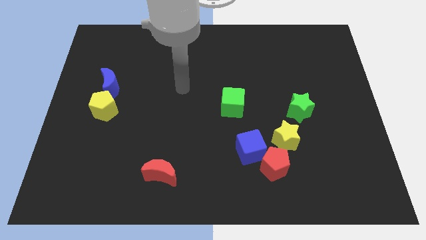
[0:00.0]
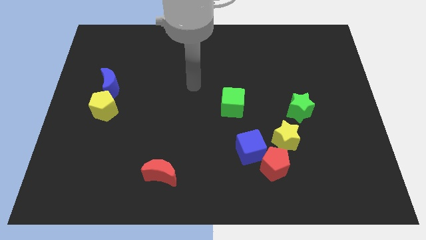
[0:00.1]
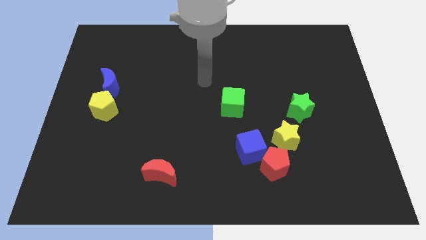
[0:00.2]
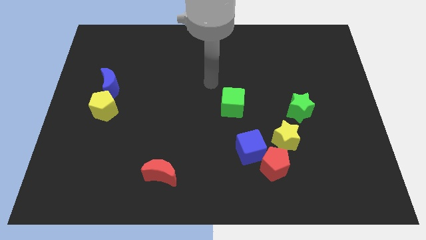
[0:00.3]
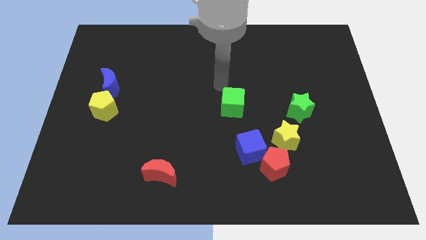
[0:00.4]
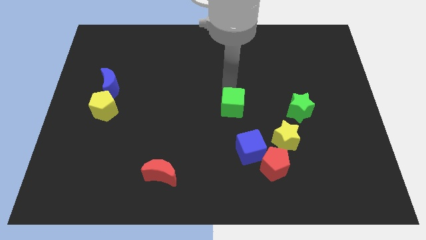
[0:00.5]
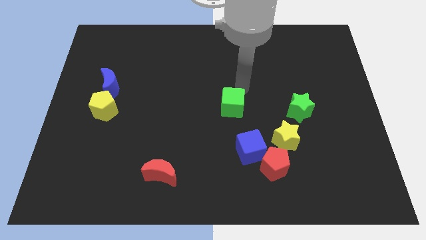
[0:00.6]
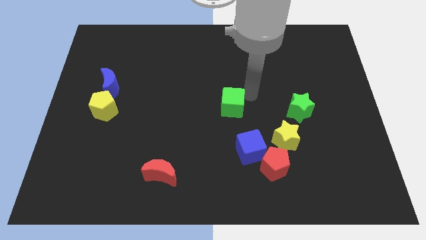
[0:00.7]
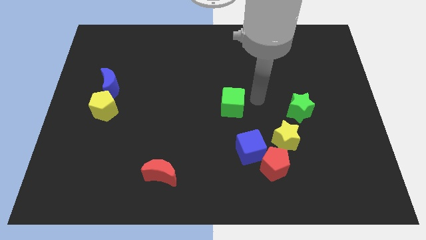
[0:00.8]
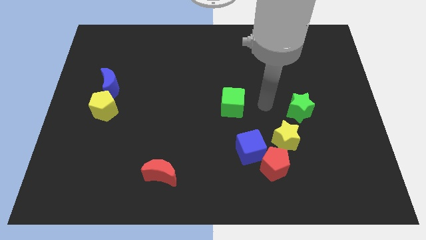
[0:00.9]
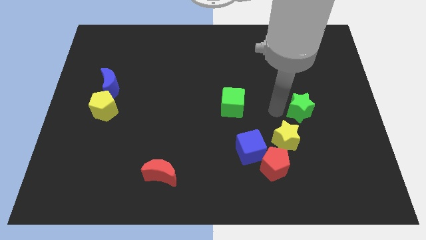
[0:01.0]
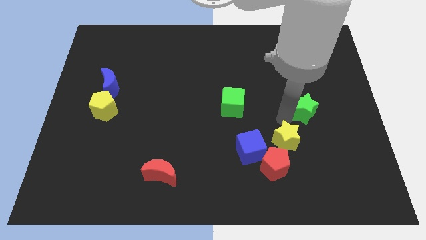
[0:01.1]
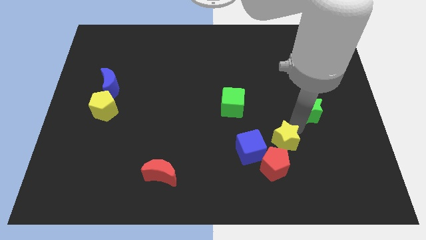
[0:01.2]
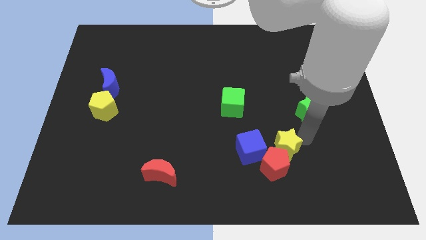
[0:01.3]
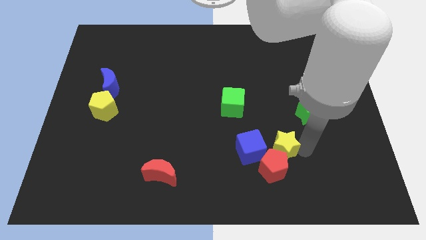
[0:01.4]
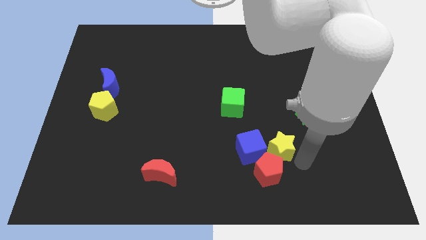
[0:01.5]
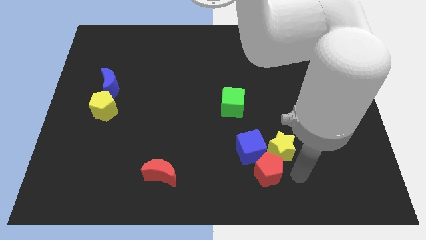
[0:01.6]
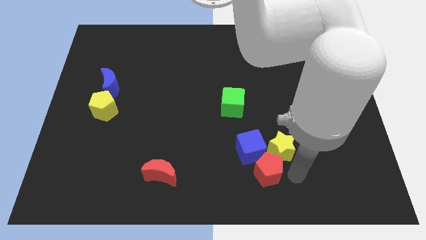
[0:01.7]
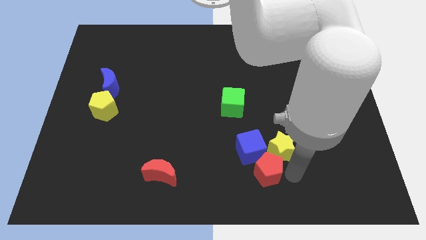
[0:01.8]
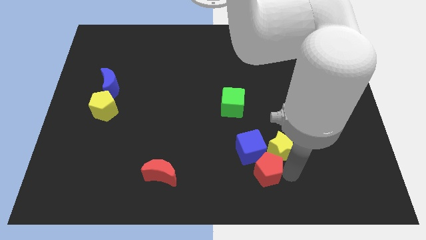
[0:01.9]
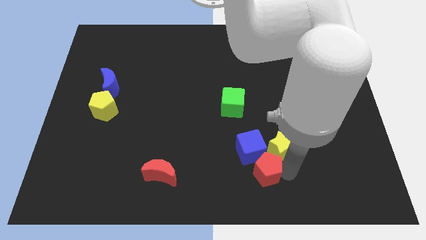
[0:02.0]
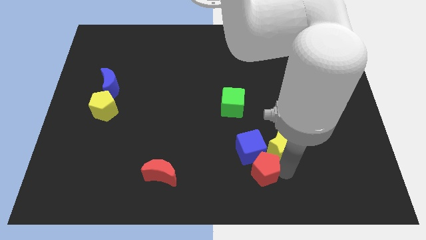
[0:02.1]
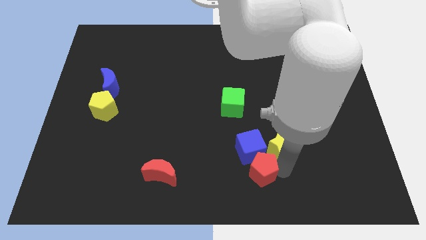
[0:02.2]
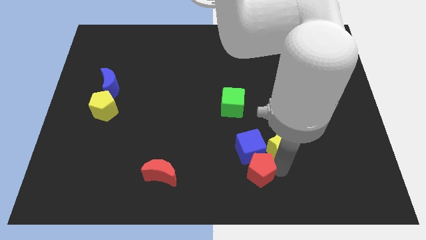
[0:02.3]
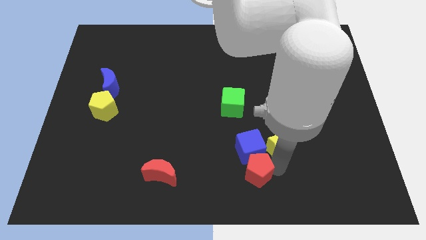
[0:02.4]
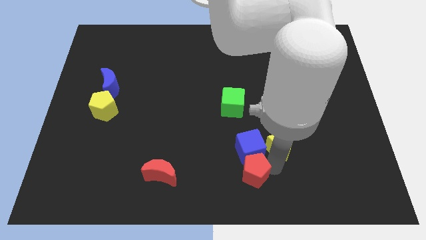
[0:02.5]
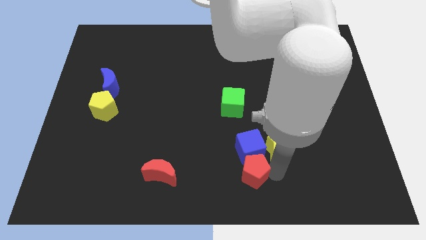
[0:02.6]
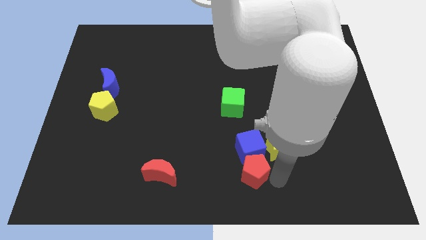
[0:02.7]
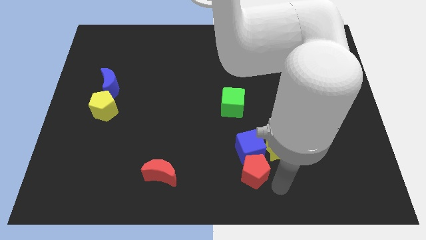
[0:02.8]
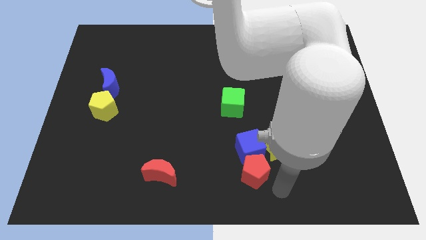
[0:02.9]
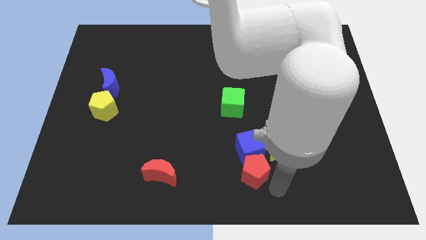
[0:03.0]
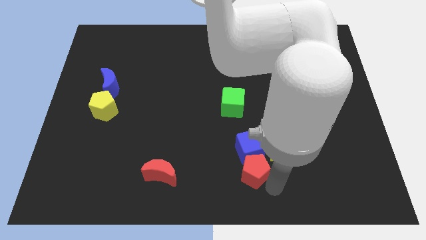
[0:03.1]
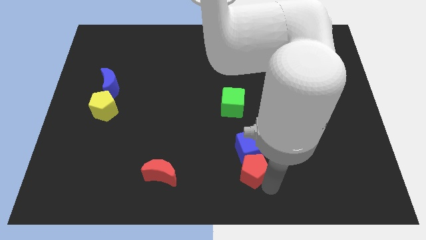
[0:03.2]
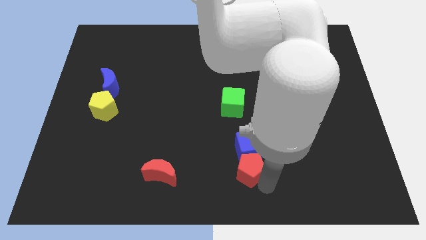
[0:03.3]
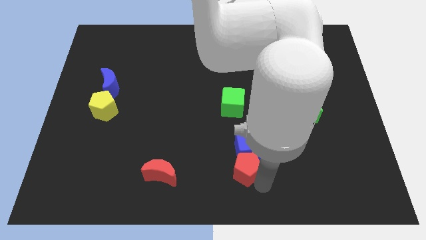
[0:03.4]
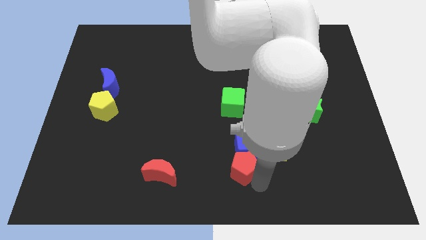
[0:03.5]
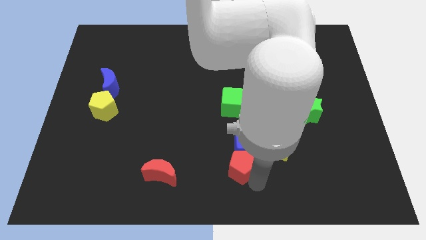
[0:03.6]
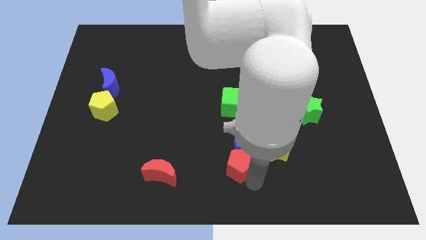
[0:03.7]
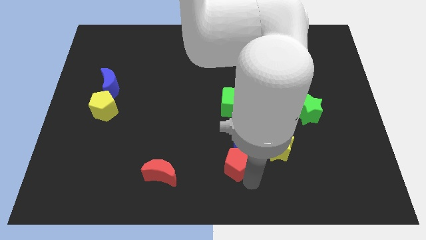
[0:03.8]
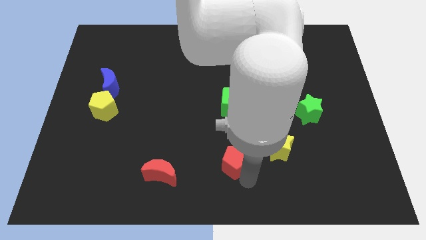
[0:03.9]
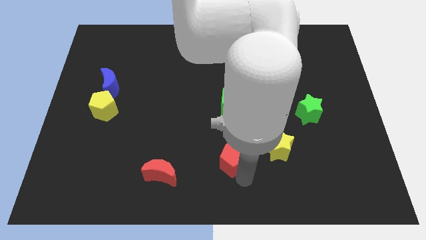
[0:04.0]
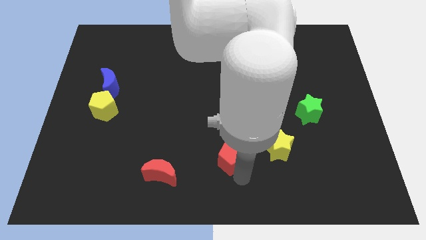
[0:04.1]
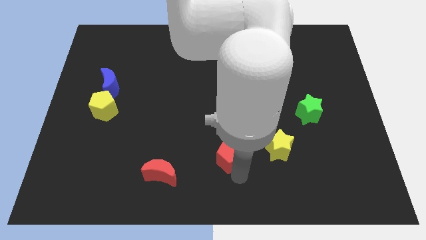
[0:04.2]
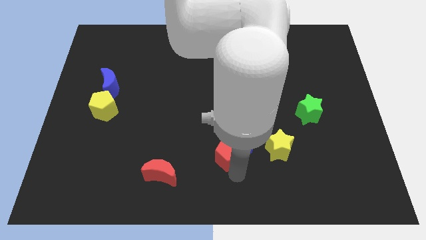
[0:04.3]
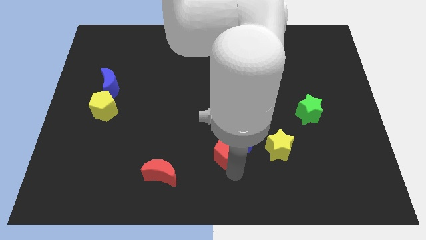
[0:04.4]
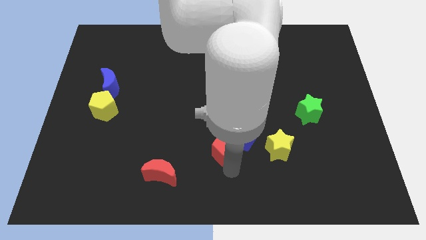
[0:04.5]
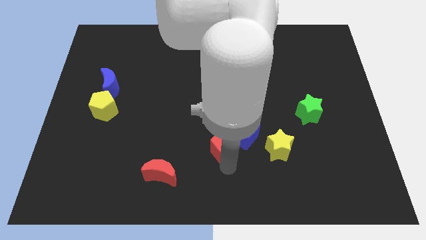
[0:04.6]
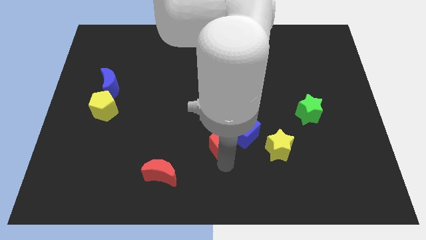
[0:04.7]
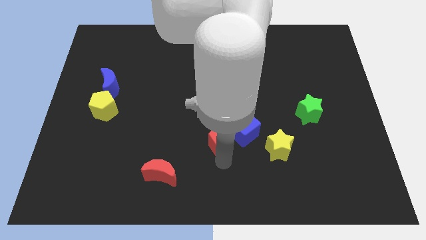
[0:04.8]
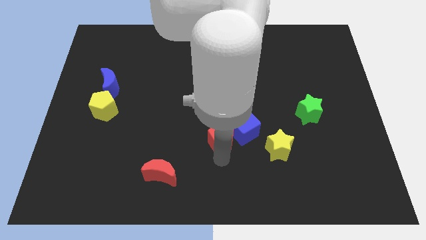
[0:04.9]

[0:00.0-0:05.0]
slide the red pentagon to the bottom left of the green cube

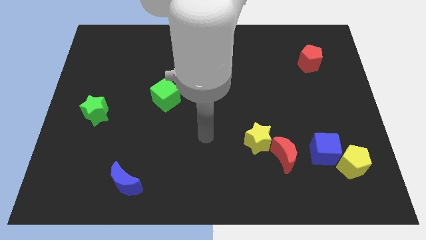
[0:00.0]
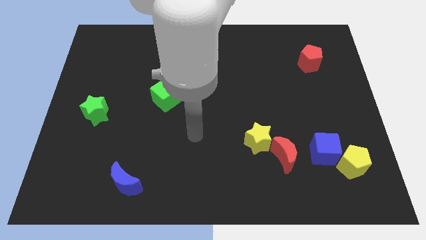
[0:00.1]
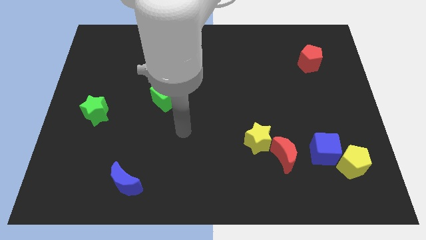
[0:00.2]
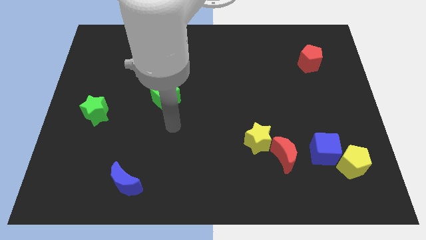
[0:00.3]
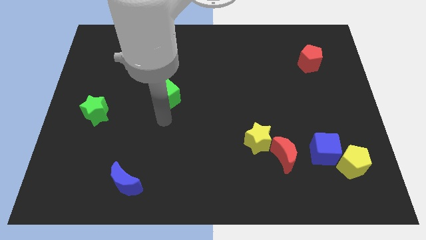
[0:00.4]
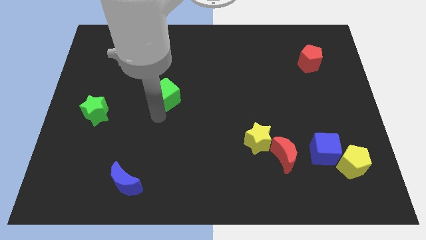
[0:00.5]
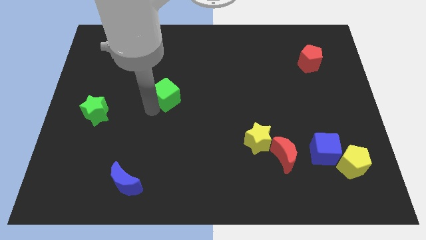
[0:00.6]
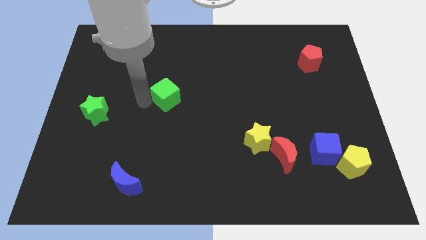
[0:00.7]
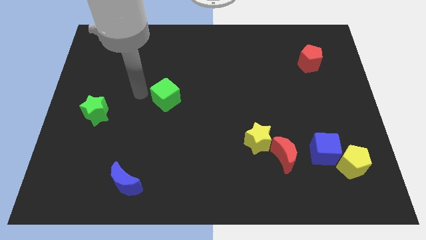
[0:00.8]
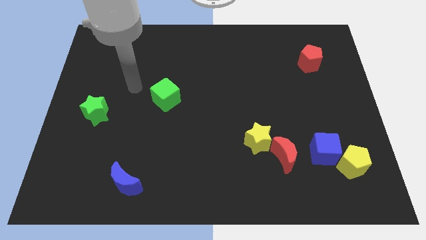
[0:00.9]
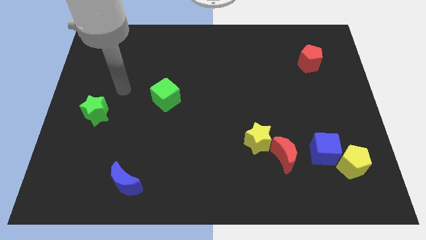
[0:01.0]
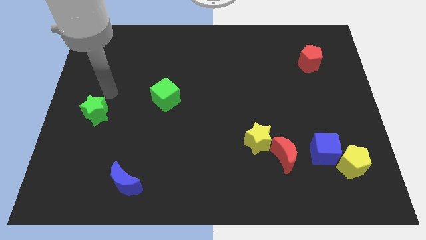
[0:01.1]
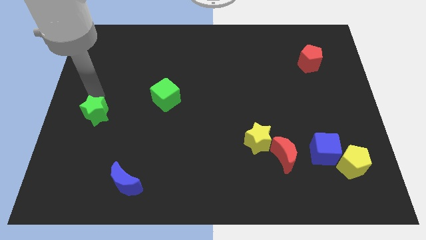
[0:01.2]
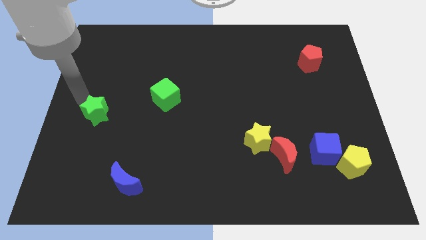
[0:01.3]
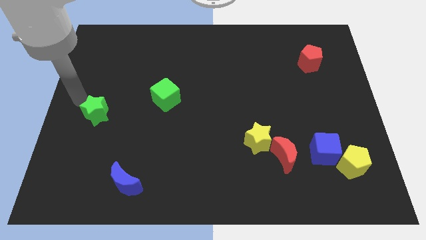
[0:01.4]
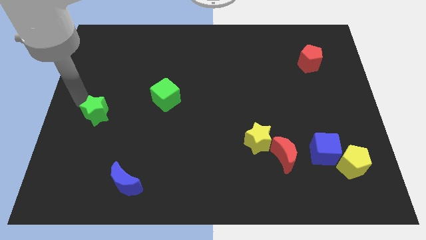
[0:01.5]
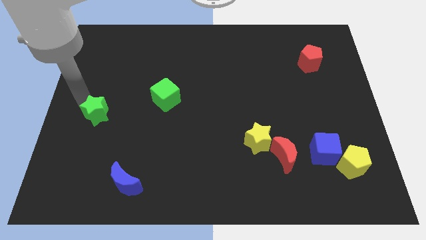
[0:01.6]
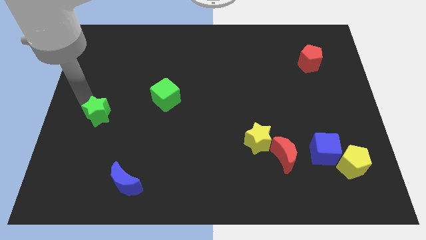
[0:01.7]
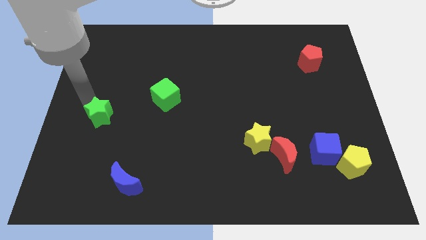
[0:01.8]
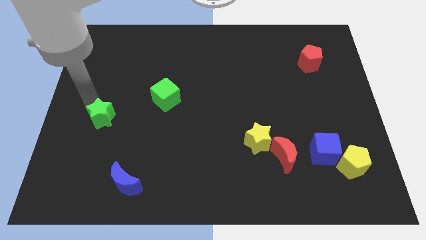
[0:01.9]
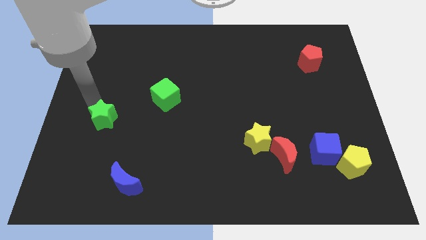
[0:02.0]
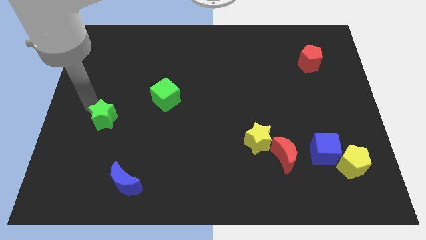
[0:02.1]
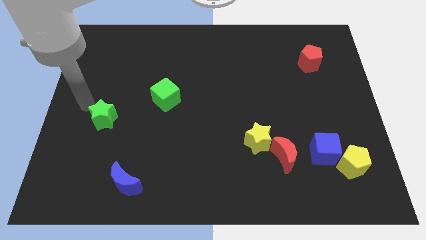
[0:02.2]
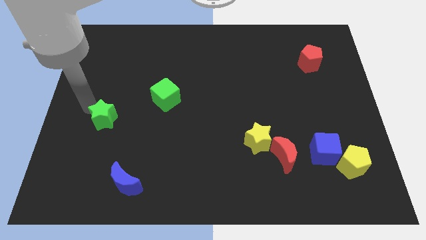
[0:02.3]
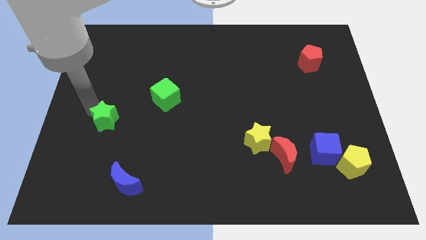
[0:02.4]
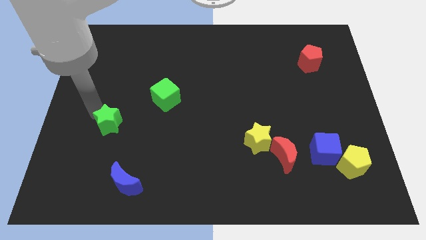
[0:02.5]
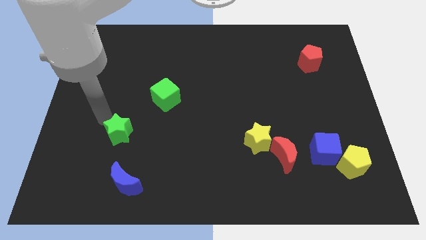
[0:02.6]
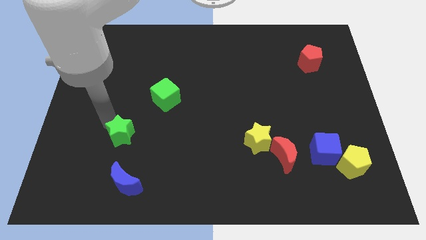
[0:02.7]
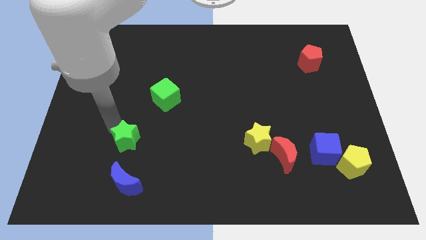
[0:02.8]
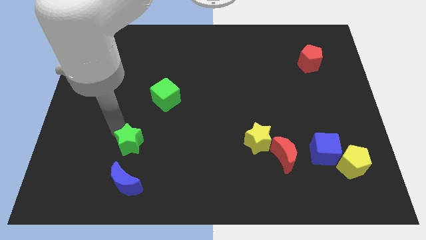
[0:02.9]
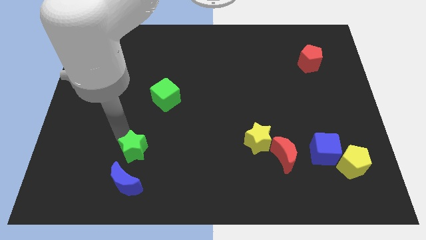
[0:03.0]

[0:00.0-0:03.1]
slide the green star to the top right of the blue moon
